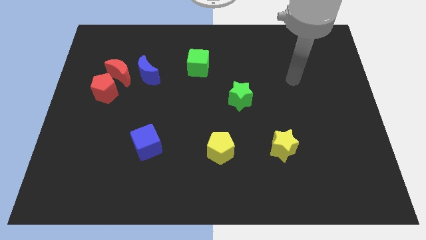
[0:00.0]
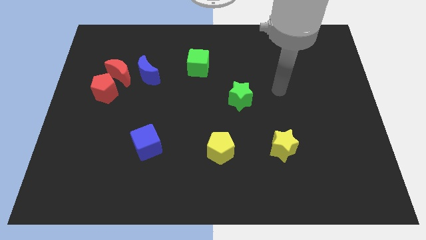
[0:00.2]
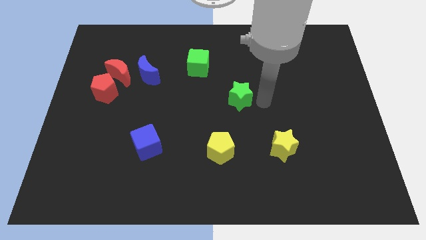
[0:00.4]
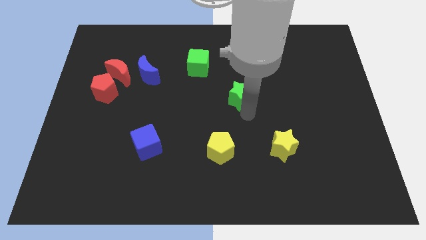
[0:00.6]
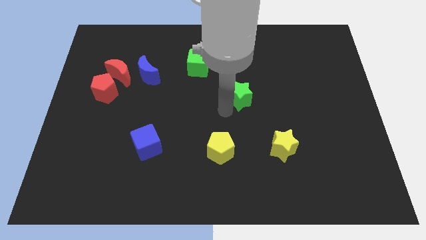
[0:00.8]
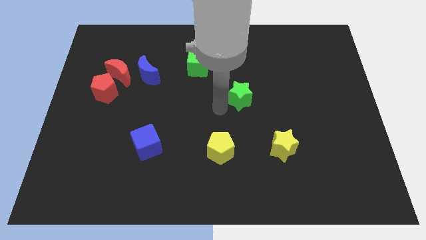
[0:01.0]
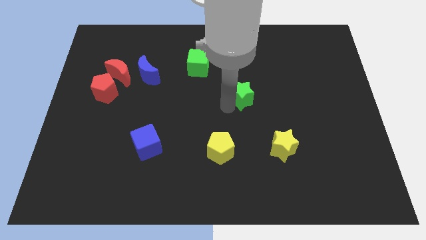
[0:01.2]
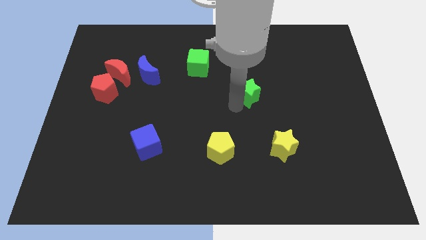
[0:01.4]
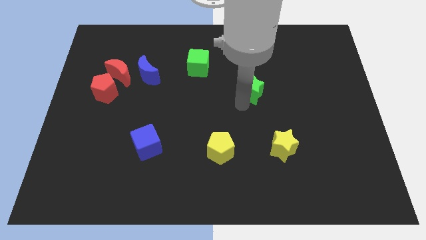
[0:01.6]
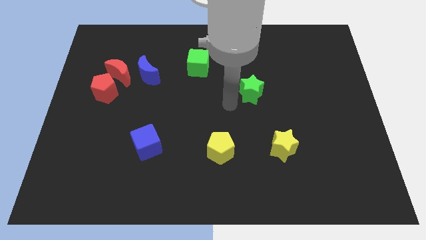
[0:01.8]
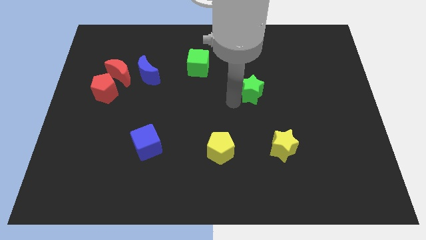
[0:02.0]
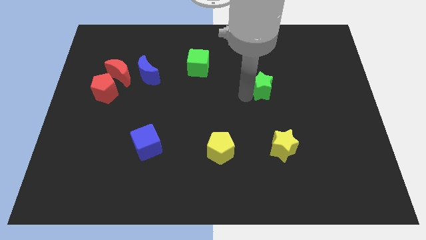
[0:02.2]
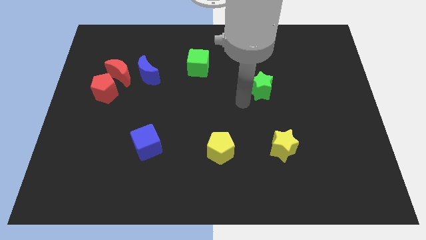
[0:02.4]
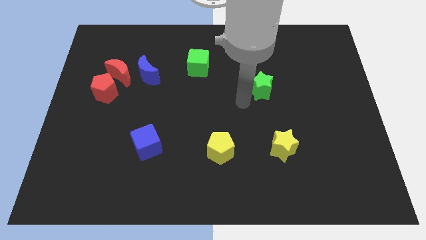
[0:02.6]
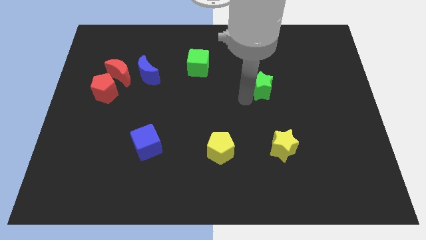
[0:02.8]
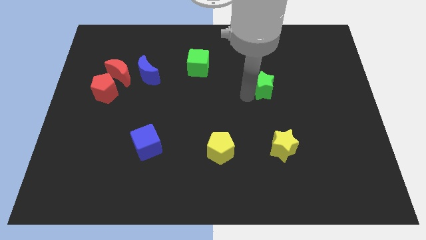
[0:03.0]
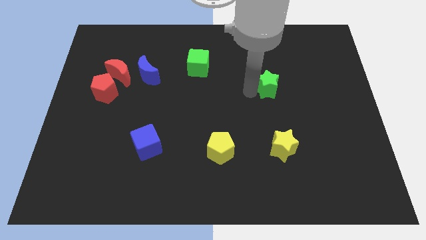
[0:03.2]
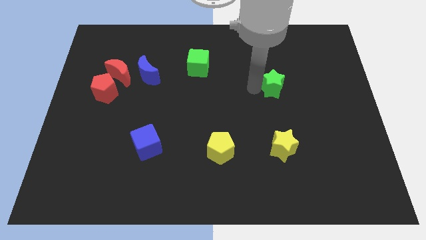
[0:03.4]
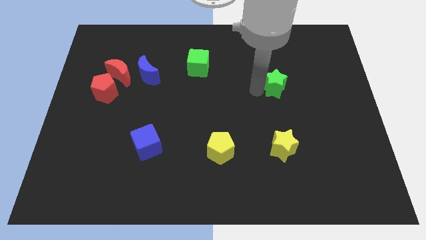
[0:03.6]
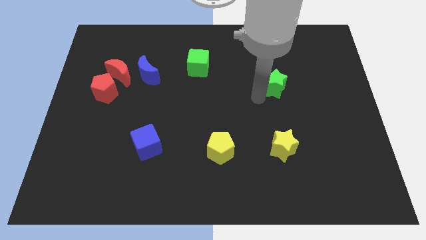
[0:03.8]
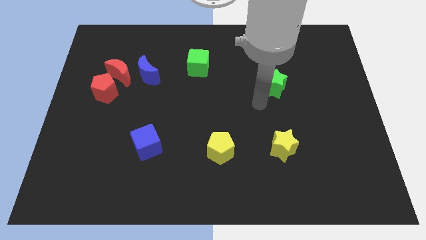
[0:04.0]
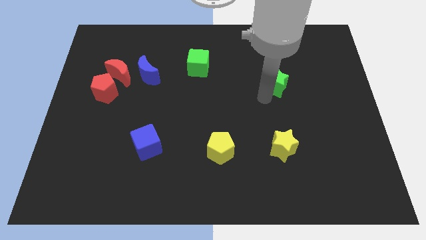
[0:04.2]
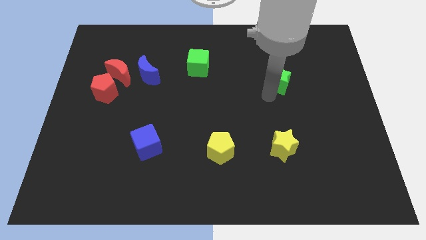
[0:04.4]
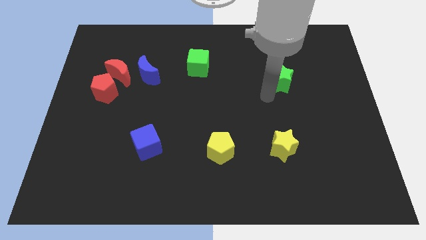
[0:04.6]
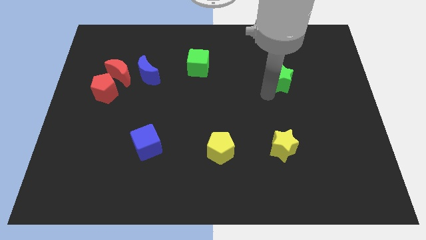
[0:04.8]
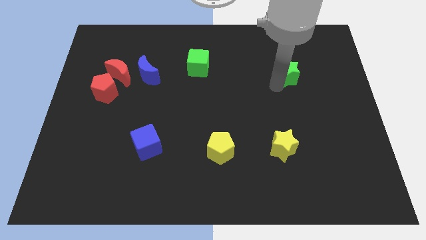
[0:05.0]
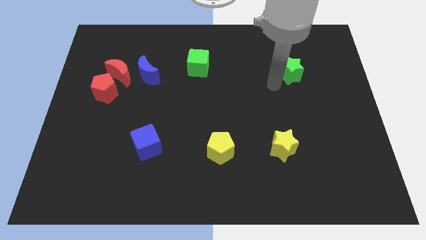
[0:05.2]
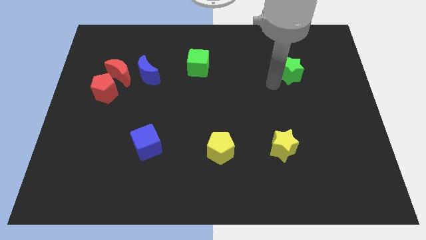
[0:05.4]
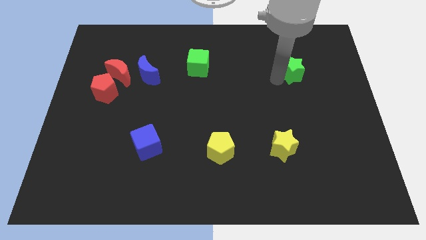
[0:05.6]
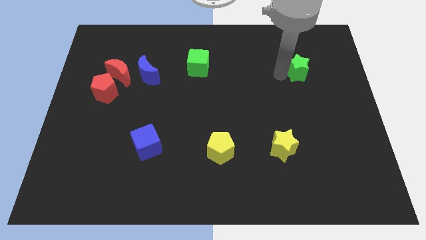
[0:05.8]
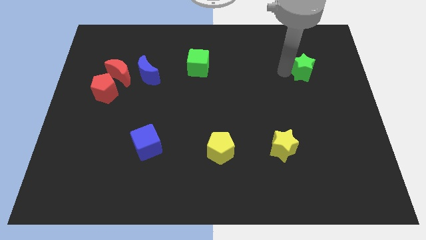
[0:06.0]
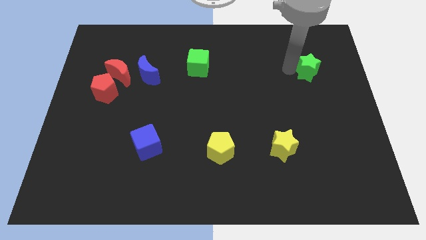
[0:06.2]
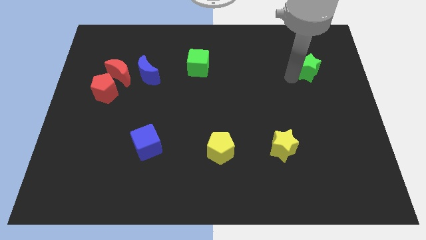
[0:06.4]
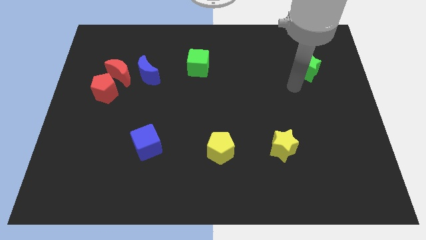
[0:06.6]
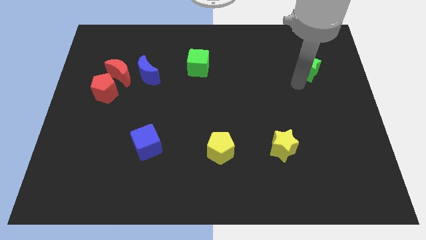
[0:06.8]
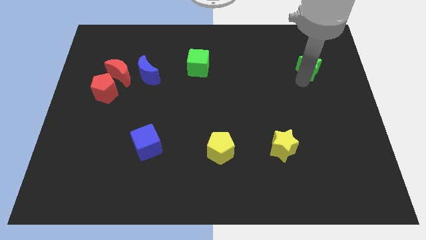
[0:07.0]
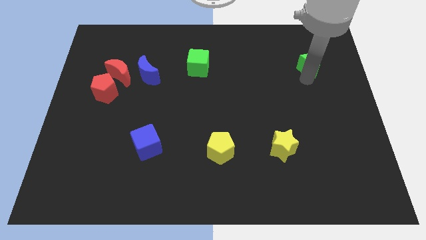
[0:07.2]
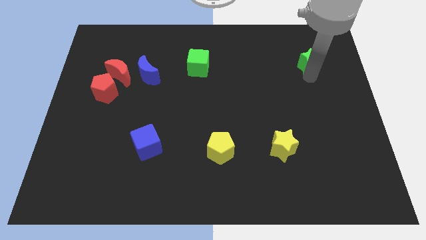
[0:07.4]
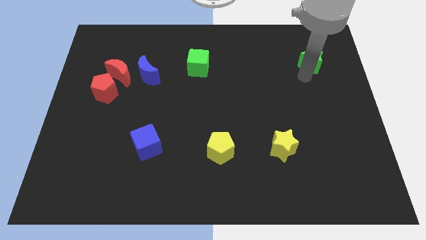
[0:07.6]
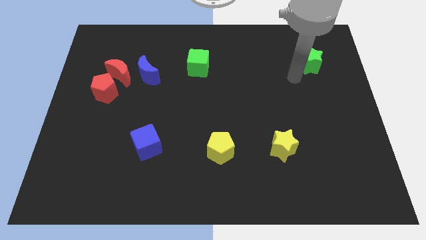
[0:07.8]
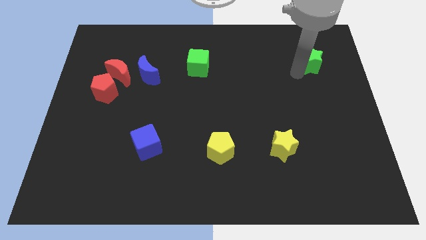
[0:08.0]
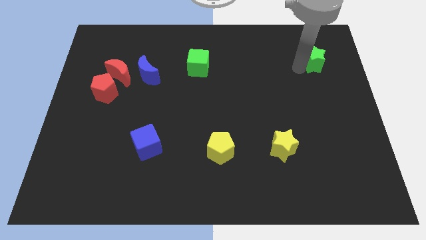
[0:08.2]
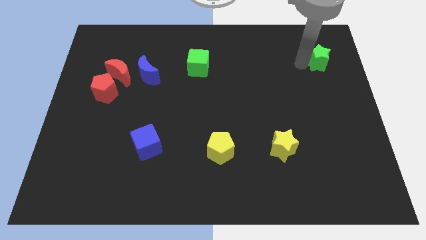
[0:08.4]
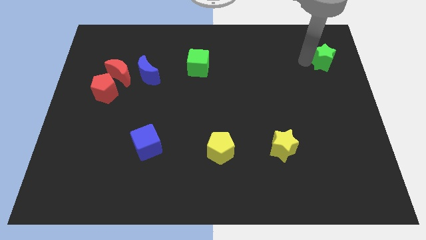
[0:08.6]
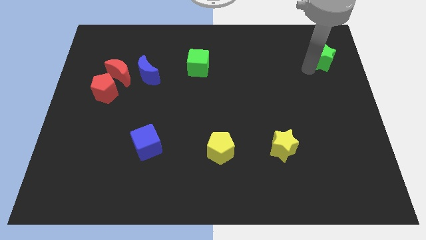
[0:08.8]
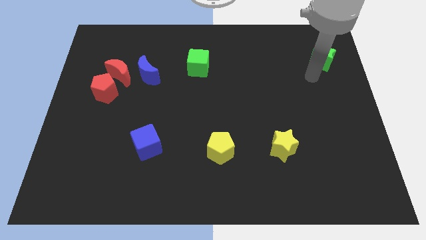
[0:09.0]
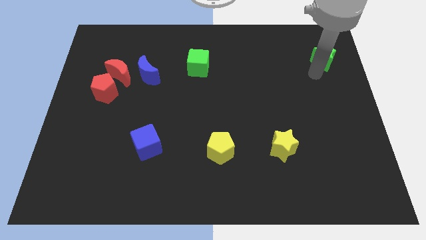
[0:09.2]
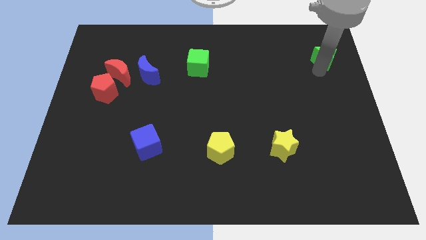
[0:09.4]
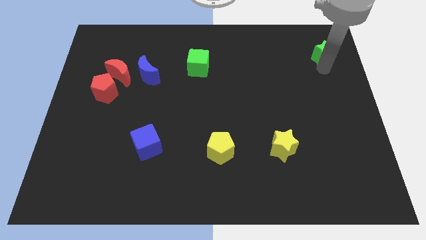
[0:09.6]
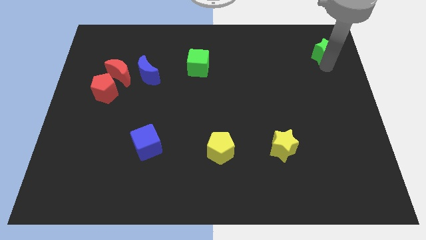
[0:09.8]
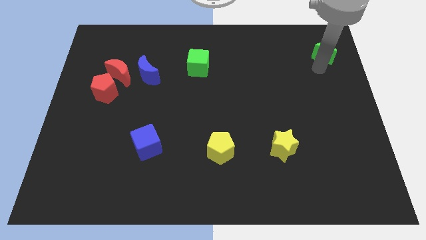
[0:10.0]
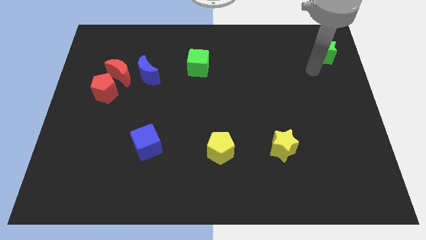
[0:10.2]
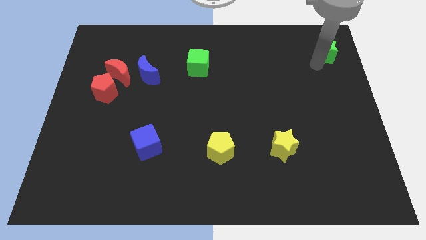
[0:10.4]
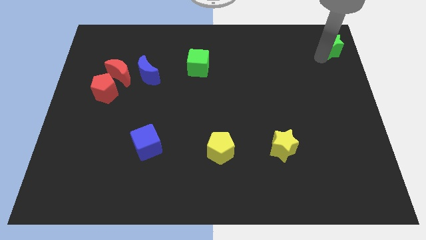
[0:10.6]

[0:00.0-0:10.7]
move the green star to the top right of the board

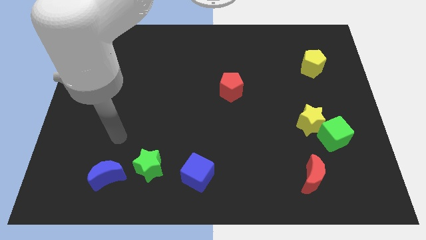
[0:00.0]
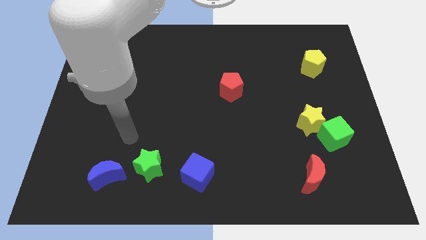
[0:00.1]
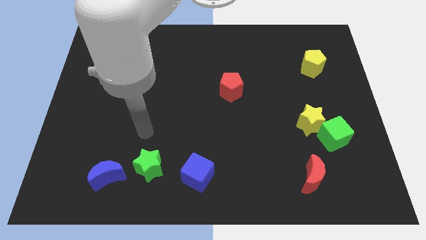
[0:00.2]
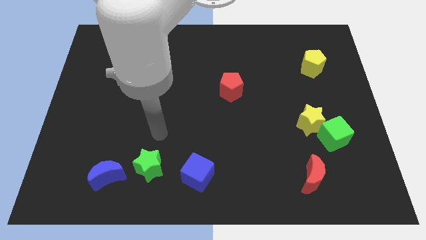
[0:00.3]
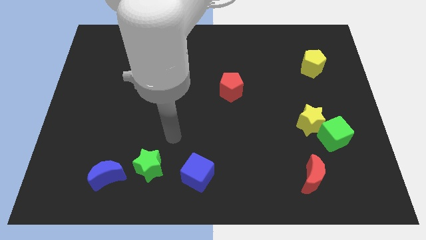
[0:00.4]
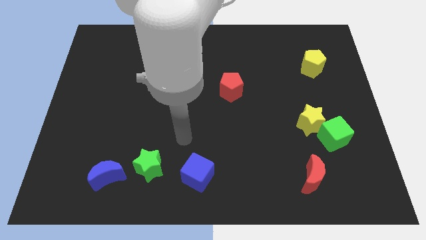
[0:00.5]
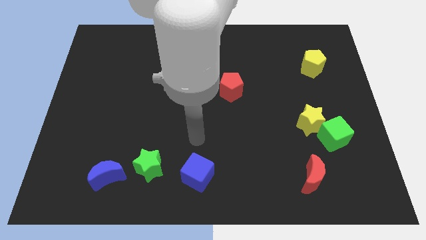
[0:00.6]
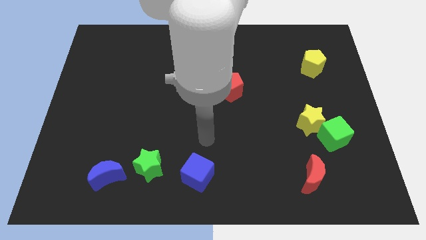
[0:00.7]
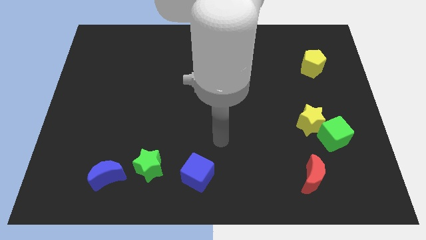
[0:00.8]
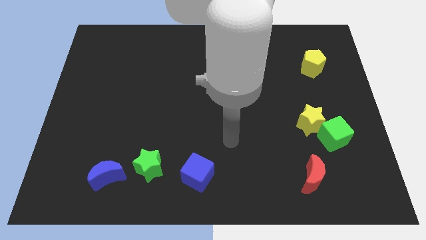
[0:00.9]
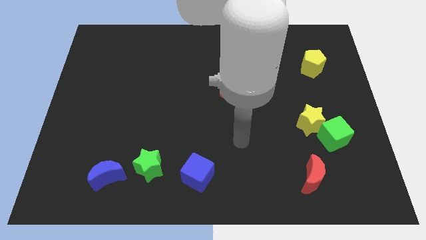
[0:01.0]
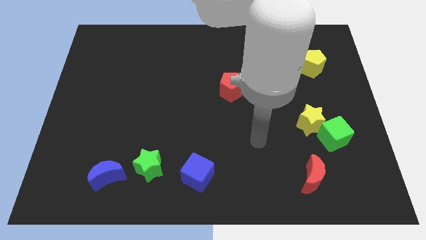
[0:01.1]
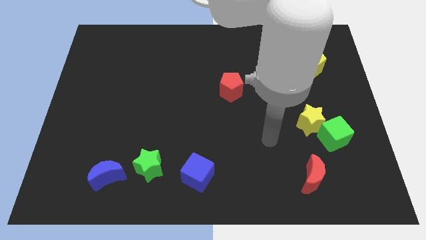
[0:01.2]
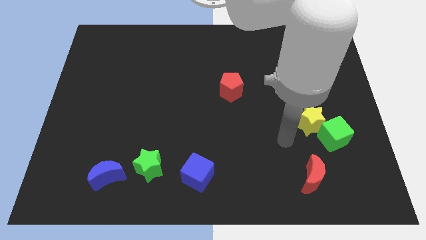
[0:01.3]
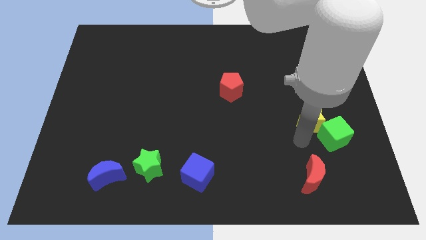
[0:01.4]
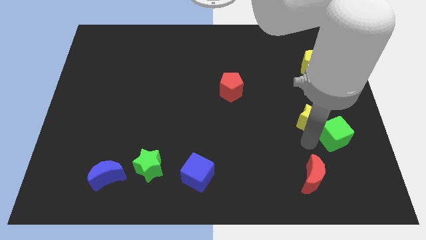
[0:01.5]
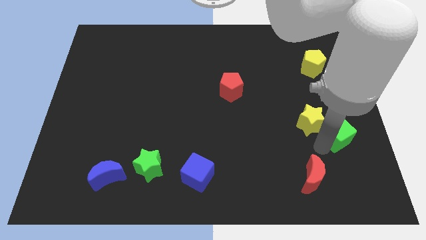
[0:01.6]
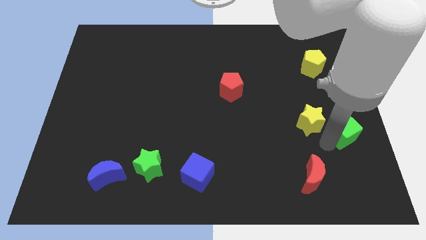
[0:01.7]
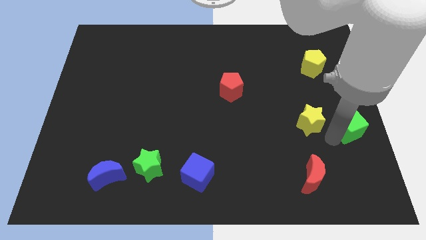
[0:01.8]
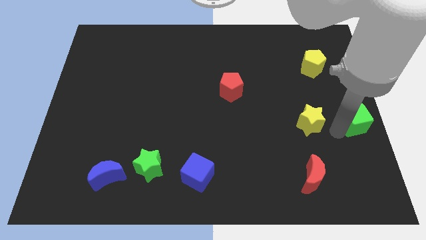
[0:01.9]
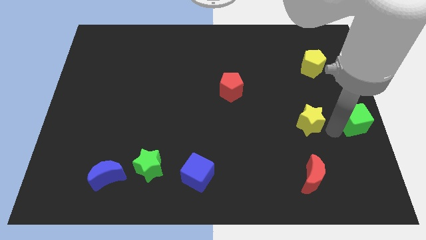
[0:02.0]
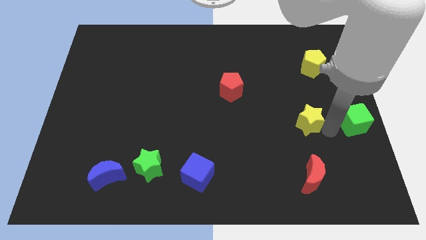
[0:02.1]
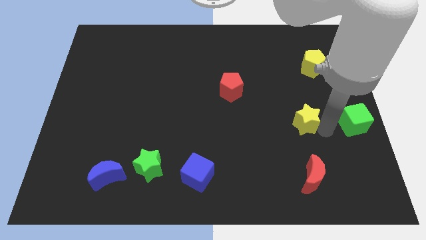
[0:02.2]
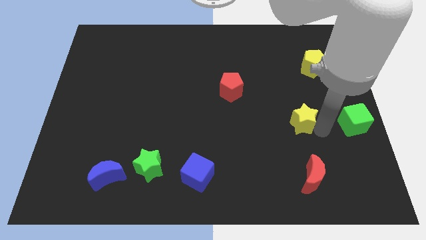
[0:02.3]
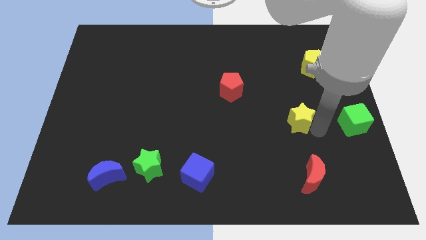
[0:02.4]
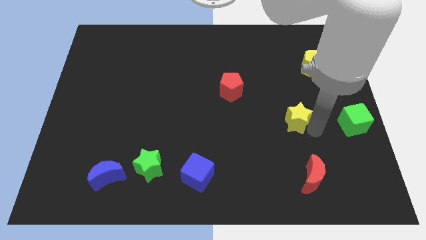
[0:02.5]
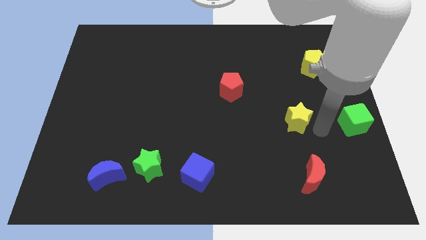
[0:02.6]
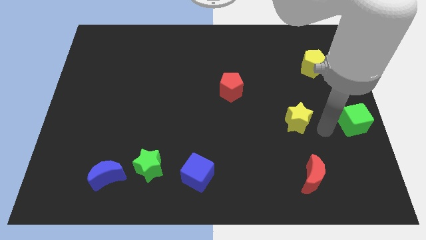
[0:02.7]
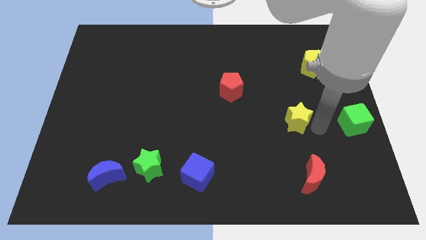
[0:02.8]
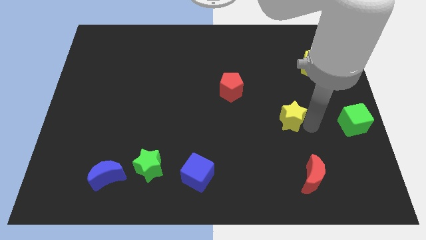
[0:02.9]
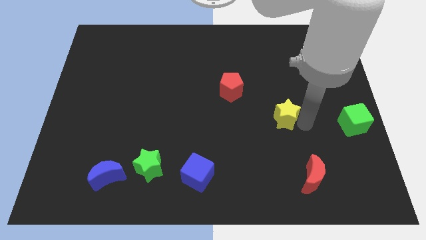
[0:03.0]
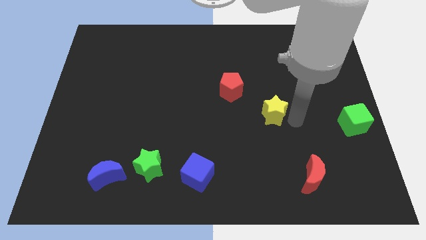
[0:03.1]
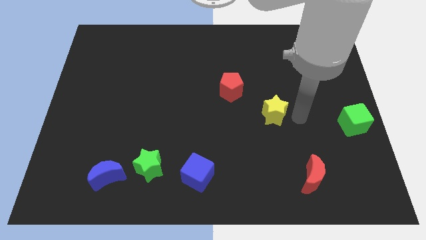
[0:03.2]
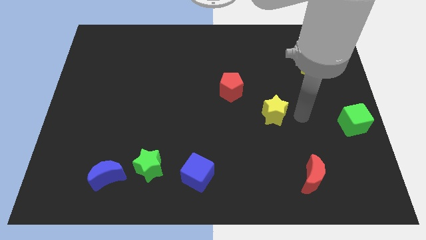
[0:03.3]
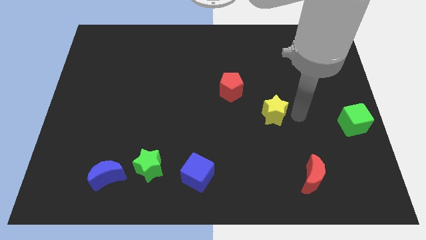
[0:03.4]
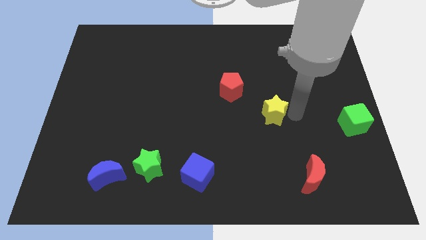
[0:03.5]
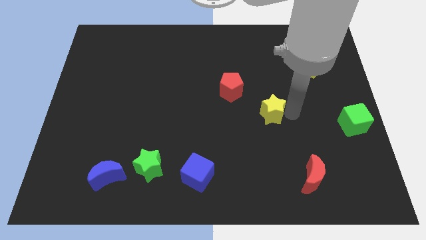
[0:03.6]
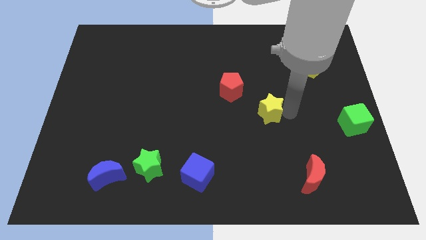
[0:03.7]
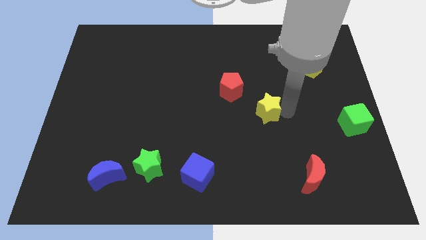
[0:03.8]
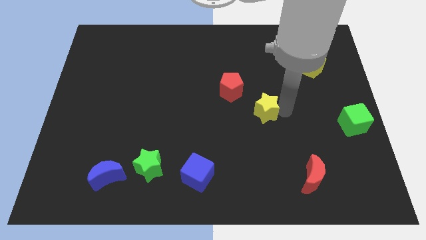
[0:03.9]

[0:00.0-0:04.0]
put the yellow star to the middle
